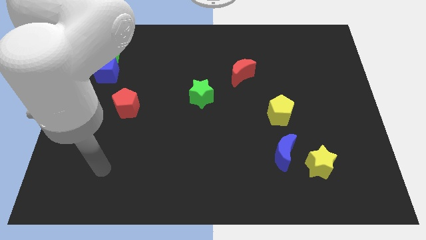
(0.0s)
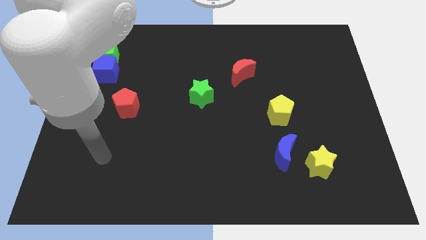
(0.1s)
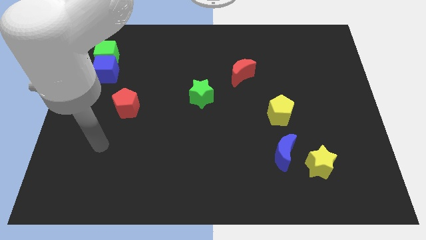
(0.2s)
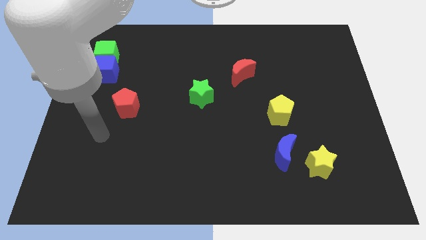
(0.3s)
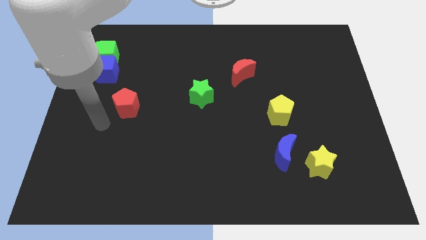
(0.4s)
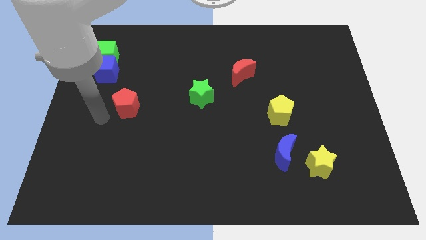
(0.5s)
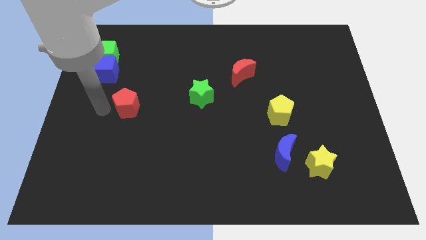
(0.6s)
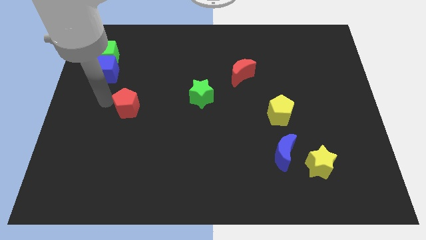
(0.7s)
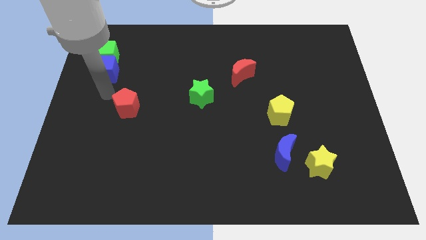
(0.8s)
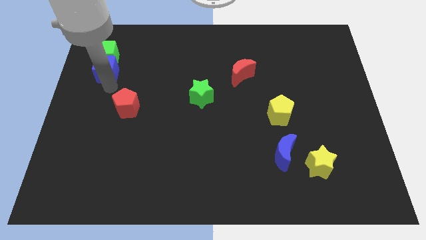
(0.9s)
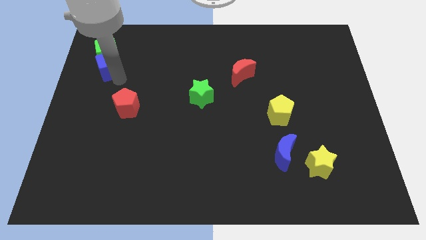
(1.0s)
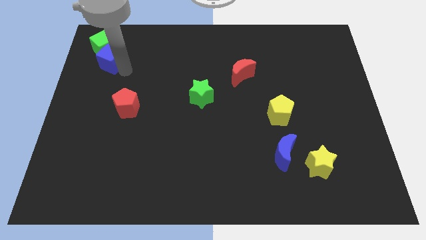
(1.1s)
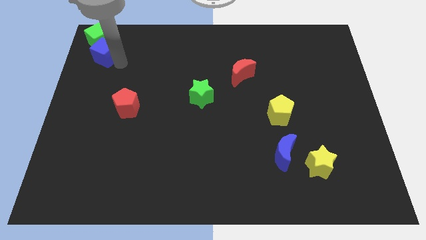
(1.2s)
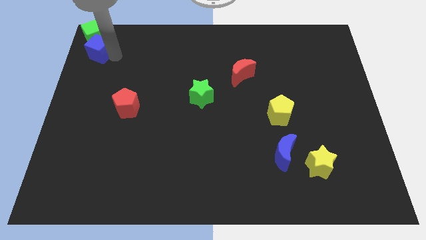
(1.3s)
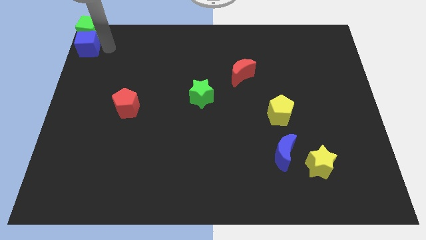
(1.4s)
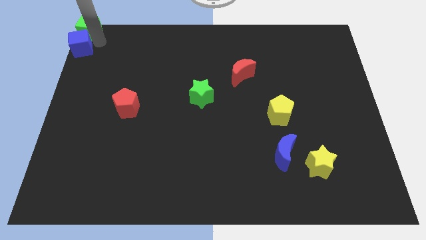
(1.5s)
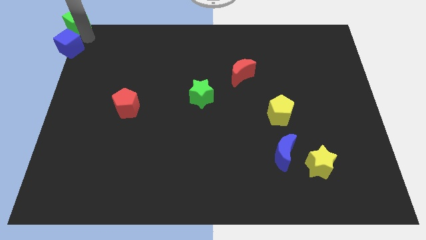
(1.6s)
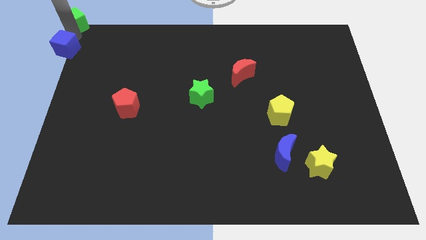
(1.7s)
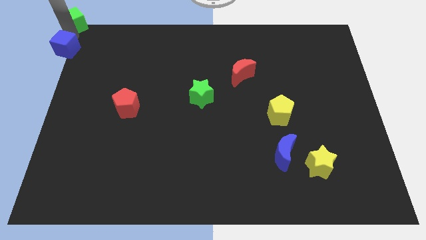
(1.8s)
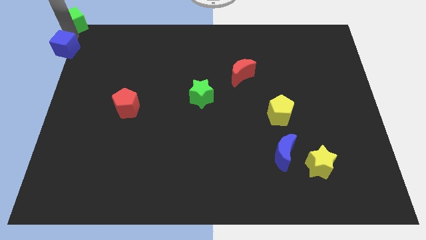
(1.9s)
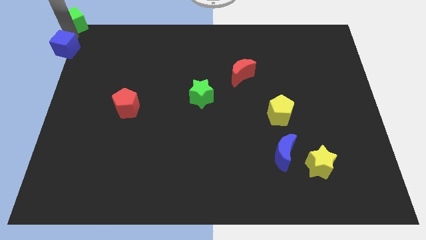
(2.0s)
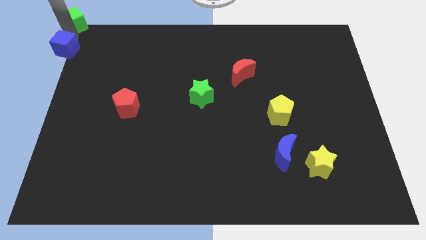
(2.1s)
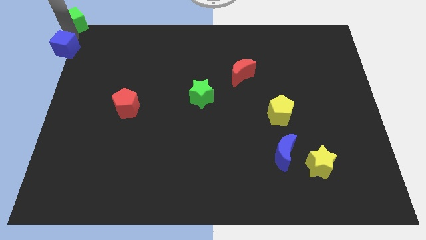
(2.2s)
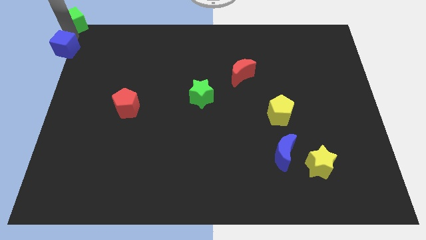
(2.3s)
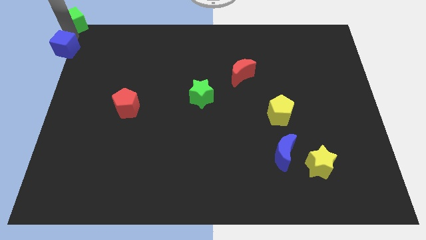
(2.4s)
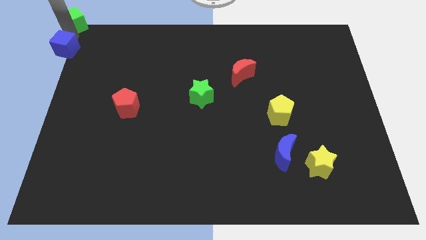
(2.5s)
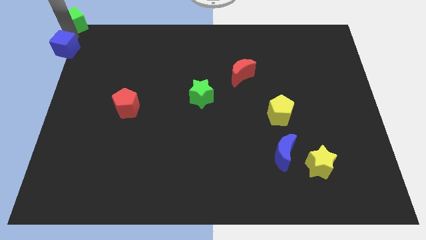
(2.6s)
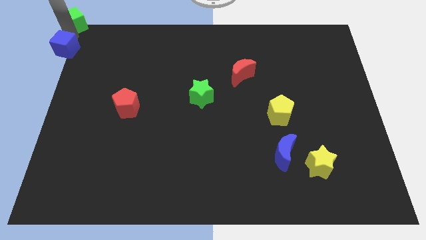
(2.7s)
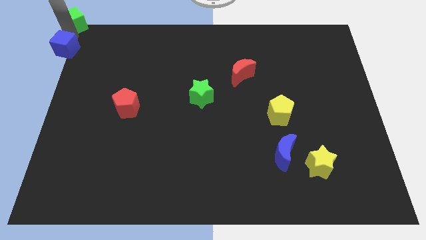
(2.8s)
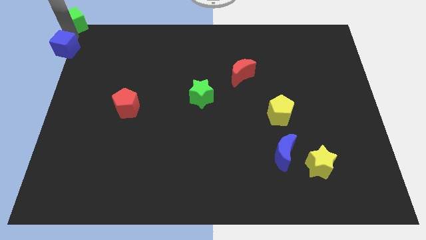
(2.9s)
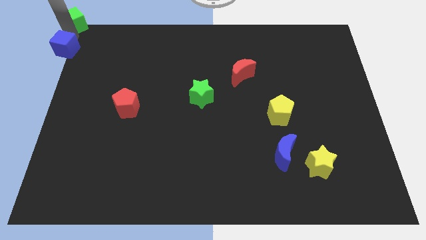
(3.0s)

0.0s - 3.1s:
separate the blue cube from the green cube

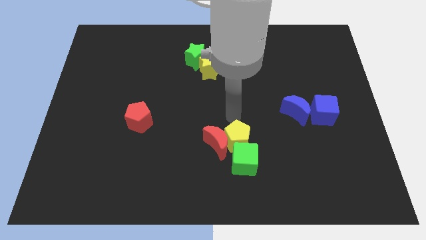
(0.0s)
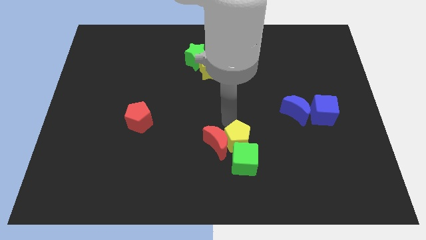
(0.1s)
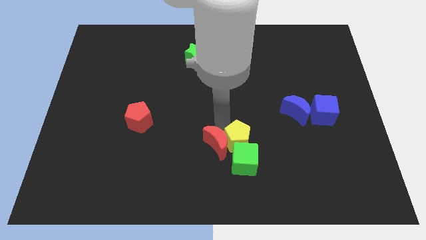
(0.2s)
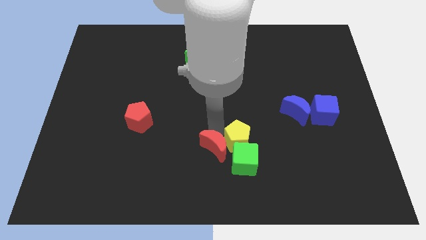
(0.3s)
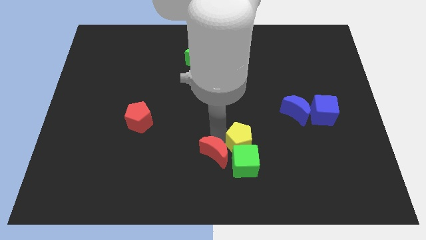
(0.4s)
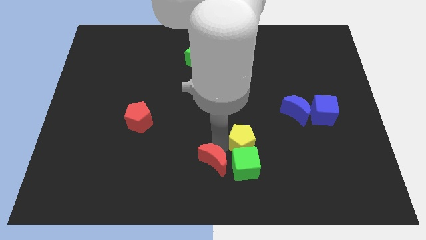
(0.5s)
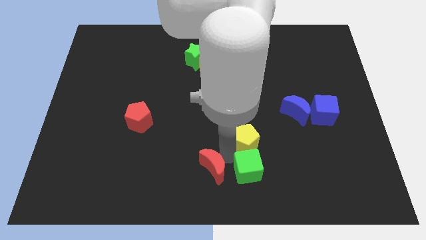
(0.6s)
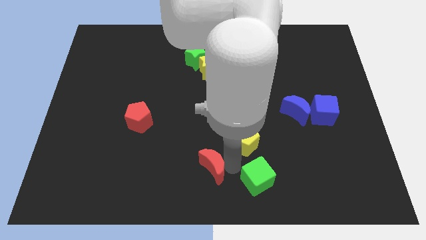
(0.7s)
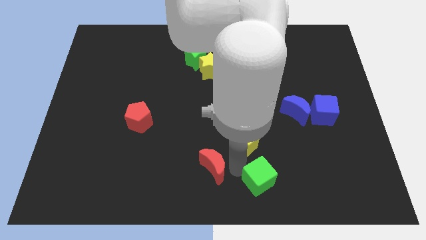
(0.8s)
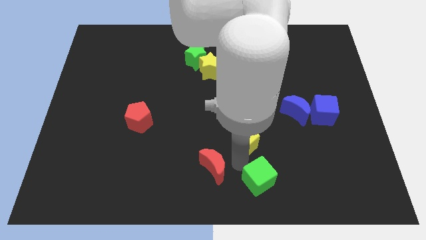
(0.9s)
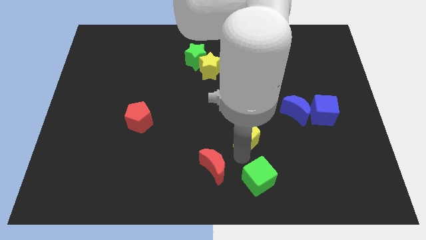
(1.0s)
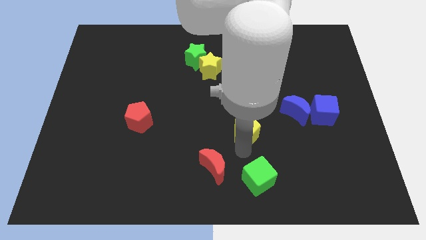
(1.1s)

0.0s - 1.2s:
move the yellow pentagon away from the red moon and green cube

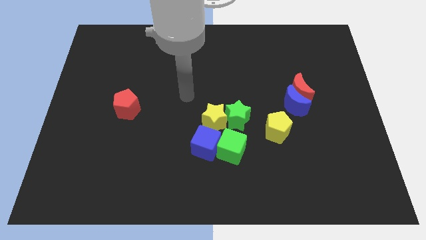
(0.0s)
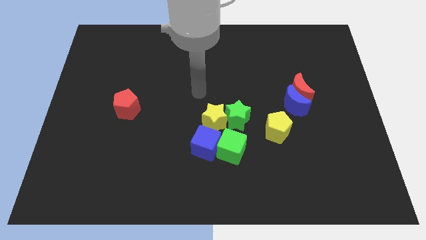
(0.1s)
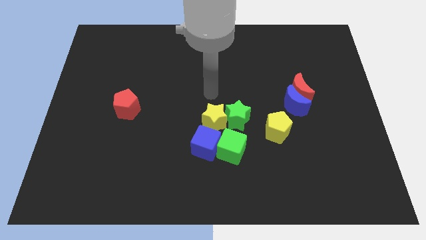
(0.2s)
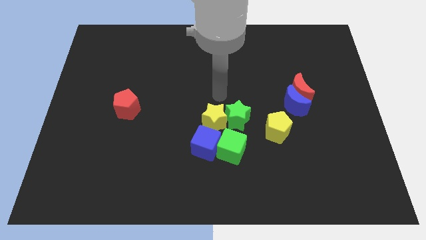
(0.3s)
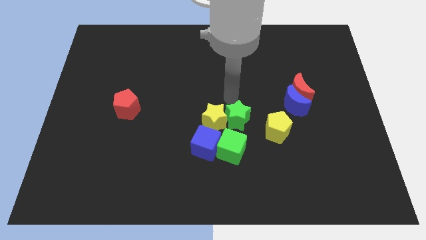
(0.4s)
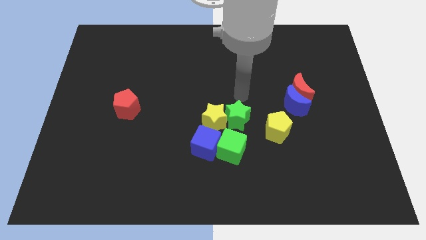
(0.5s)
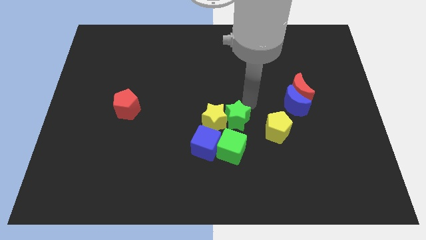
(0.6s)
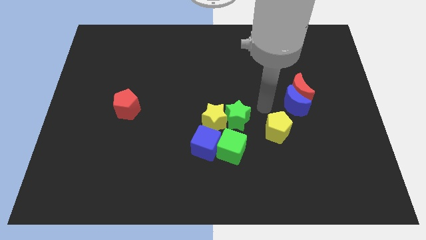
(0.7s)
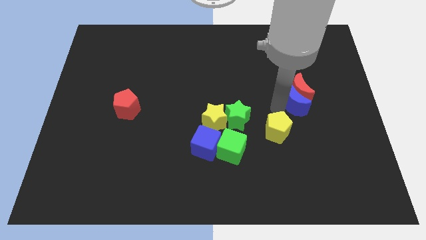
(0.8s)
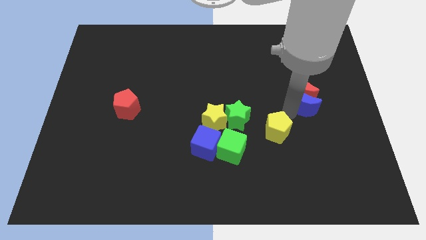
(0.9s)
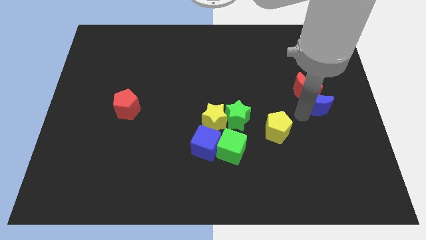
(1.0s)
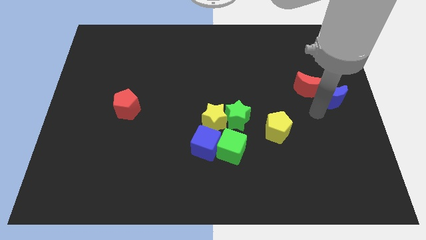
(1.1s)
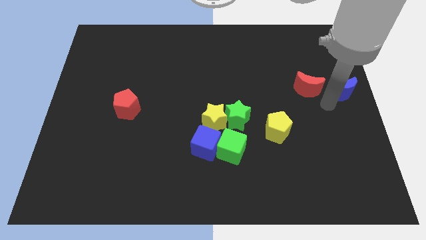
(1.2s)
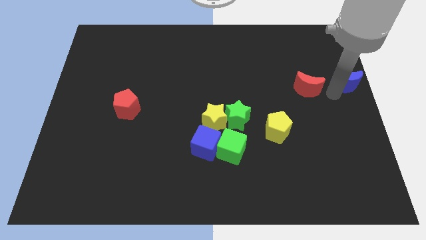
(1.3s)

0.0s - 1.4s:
separate the red moon from the blue moon

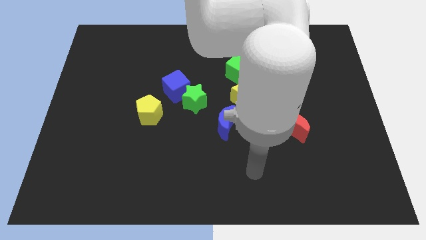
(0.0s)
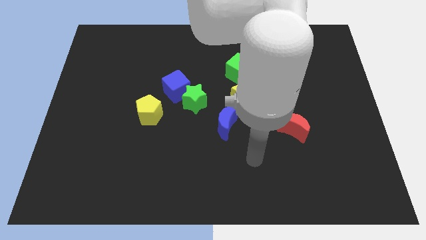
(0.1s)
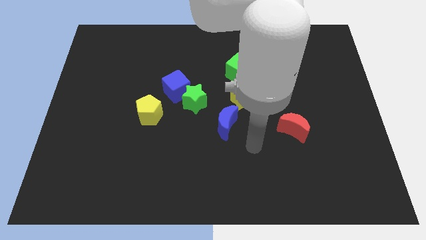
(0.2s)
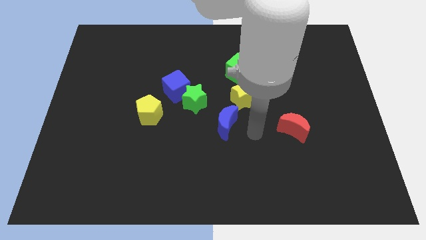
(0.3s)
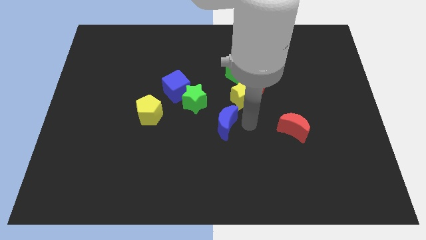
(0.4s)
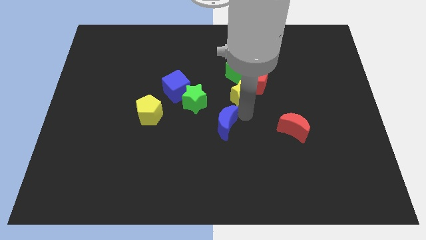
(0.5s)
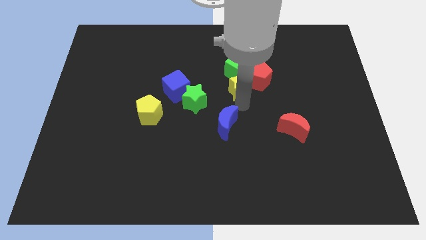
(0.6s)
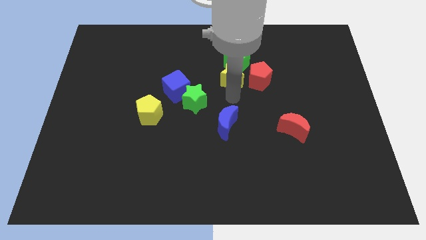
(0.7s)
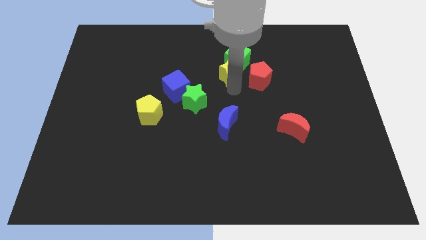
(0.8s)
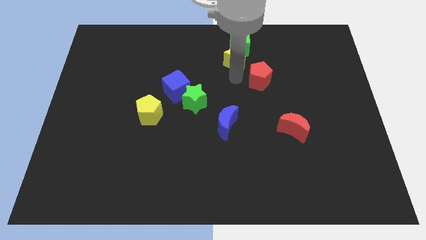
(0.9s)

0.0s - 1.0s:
separate the red pentagon from the green cube and yellow star

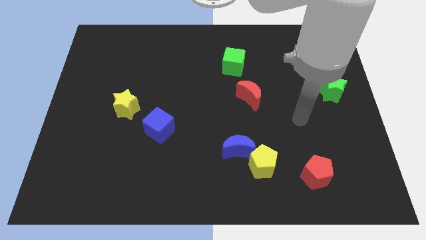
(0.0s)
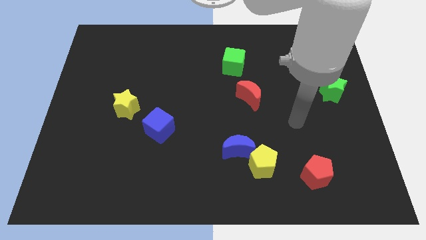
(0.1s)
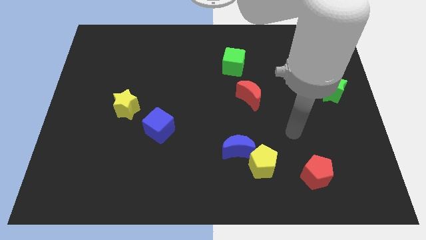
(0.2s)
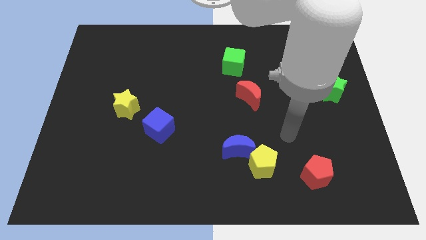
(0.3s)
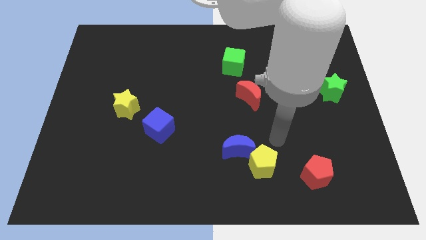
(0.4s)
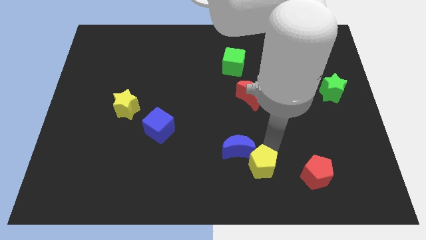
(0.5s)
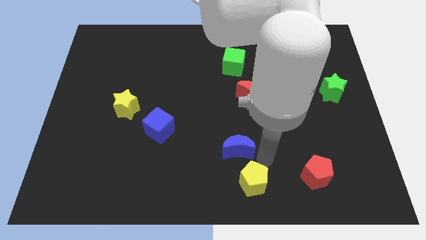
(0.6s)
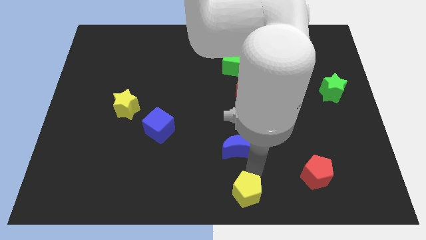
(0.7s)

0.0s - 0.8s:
separate the blue moon from the yellow pentagon

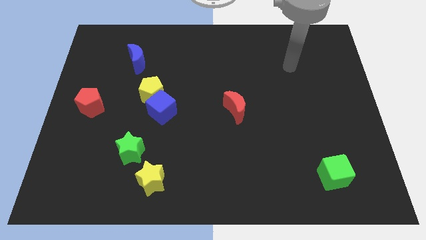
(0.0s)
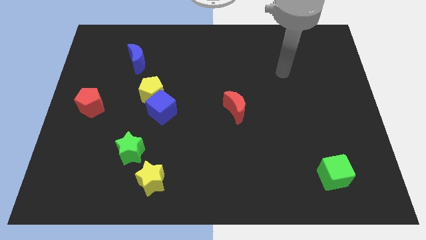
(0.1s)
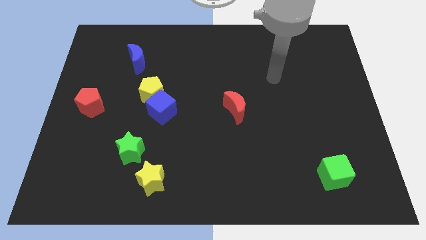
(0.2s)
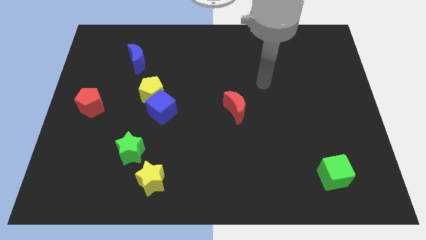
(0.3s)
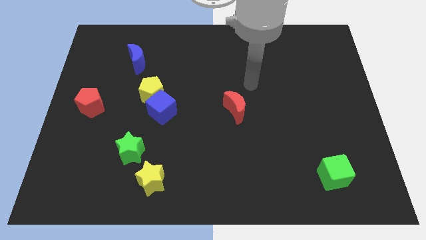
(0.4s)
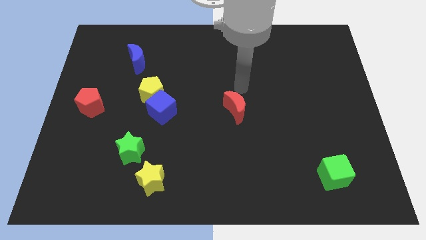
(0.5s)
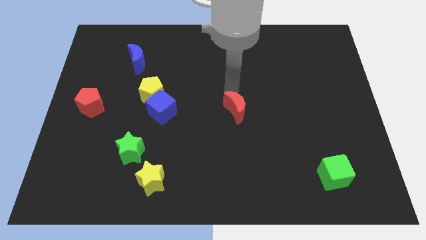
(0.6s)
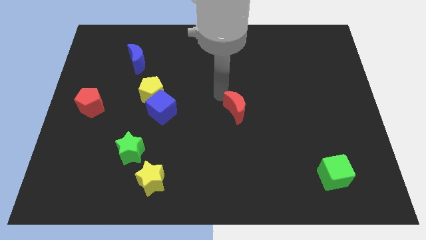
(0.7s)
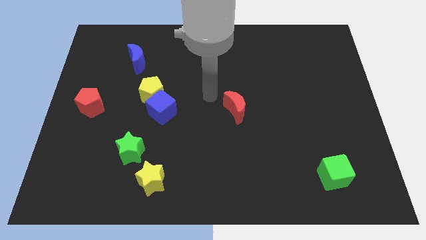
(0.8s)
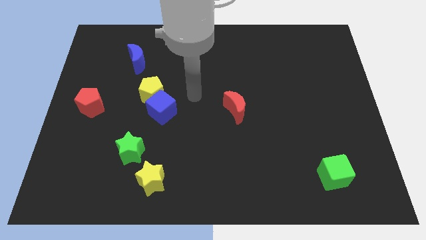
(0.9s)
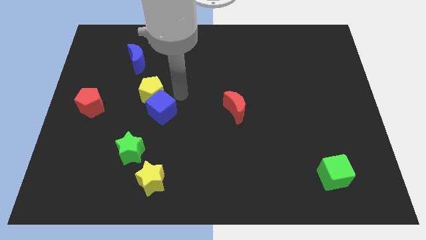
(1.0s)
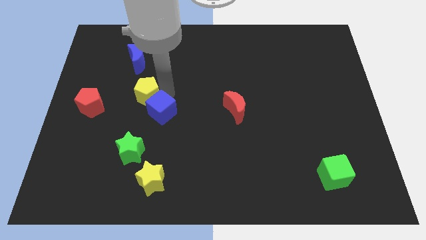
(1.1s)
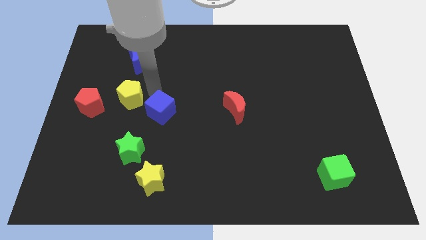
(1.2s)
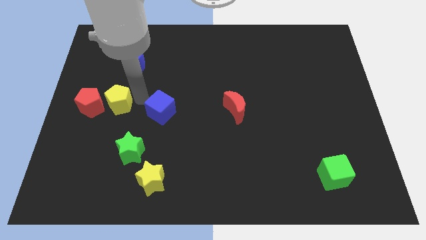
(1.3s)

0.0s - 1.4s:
move the blue cube away from the yellow pentagon

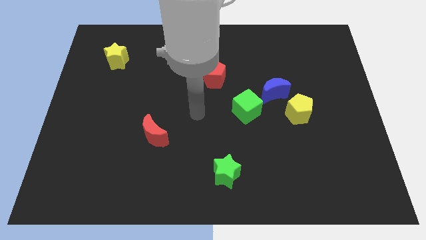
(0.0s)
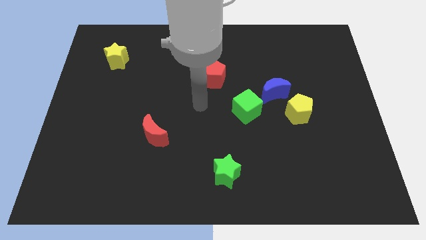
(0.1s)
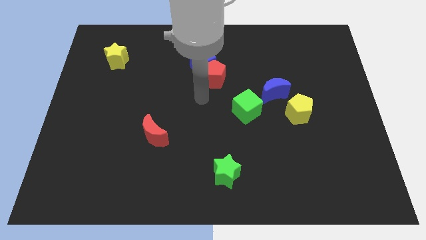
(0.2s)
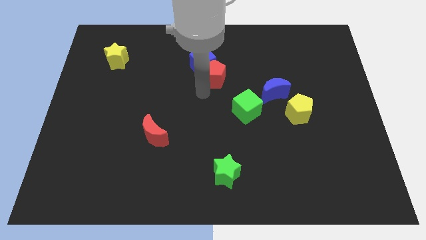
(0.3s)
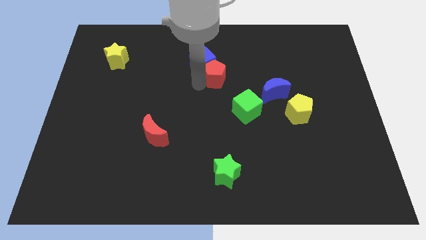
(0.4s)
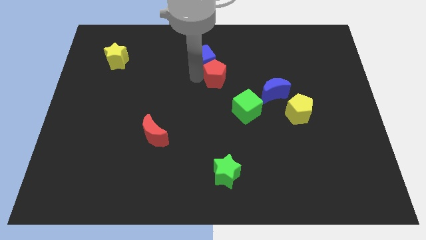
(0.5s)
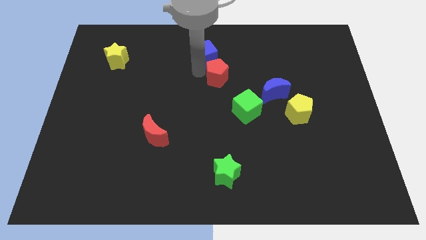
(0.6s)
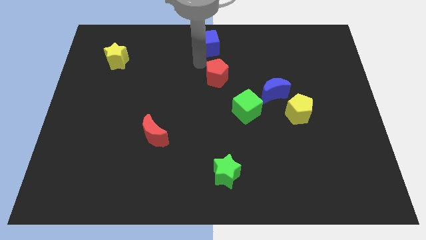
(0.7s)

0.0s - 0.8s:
separate the red pentagon from the blue cube
